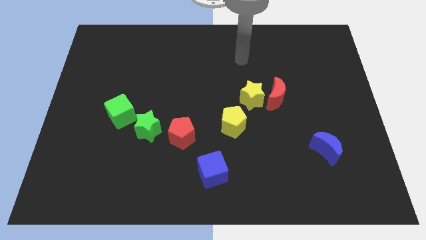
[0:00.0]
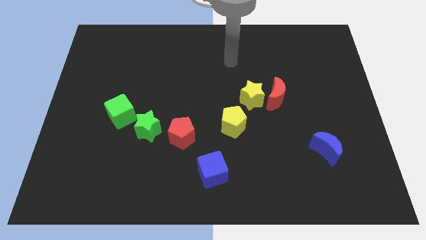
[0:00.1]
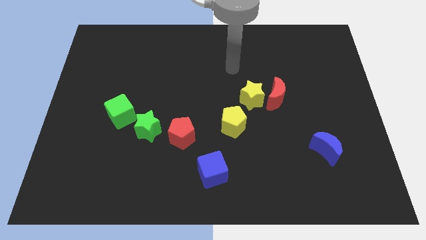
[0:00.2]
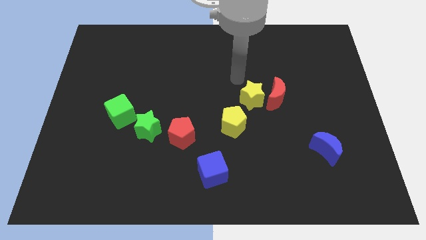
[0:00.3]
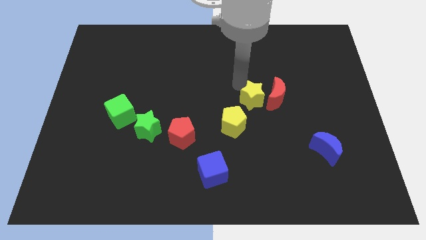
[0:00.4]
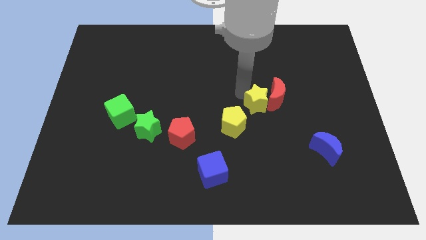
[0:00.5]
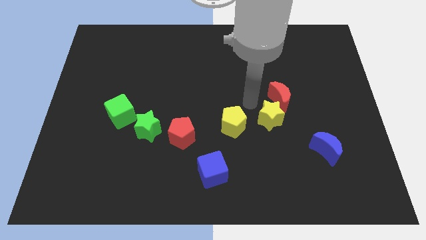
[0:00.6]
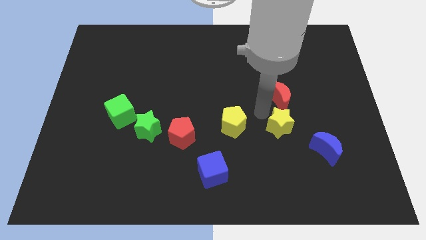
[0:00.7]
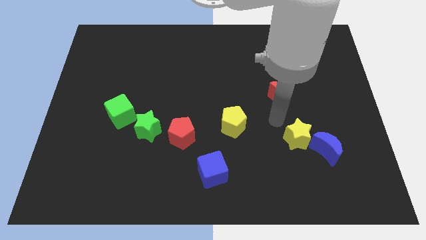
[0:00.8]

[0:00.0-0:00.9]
move the red moon away from the yellow star

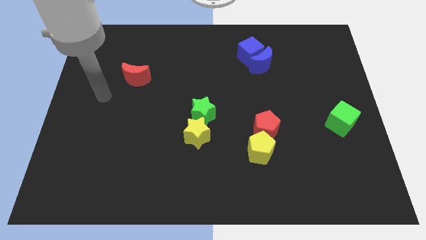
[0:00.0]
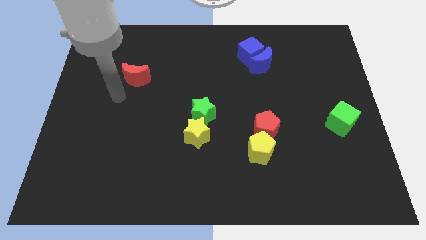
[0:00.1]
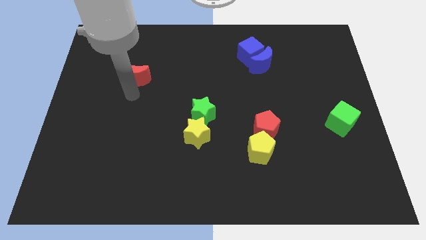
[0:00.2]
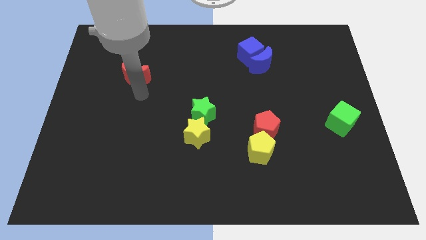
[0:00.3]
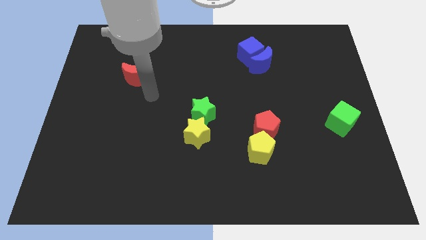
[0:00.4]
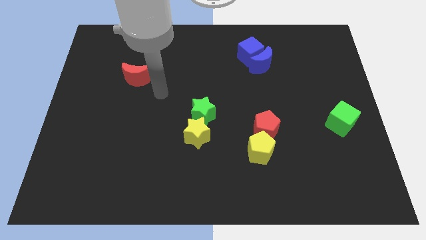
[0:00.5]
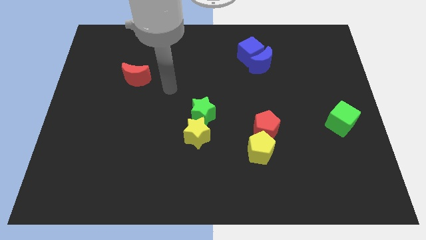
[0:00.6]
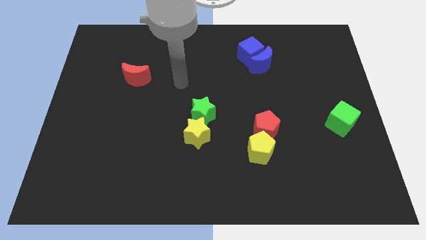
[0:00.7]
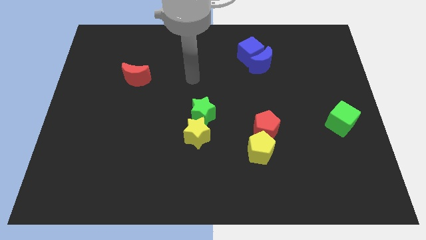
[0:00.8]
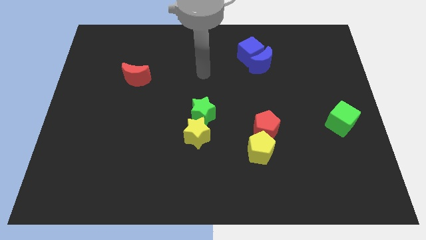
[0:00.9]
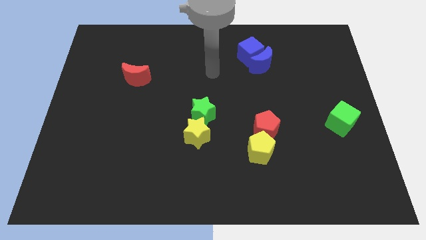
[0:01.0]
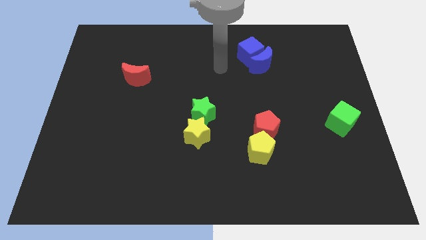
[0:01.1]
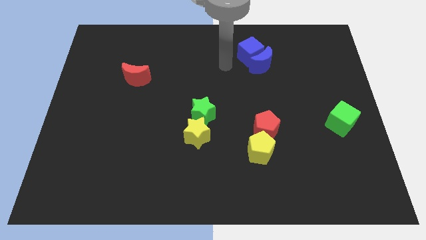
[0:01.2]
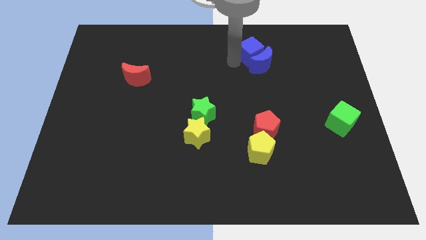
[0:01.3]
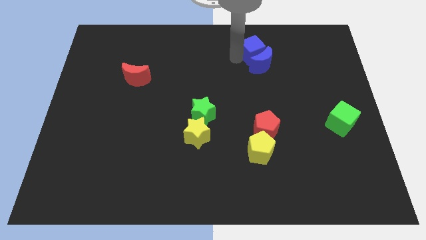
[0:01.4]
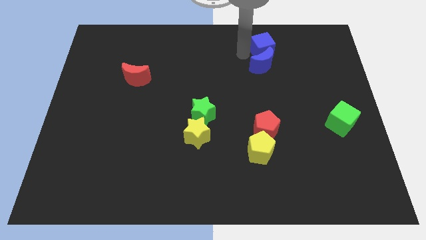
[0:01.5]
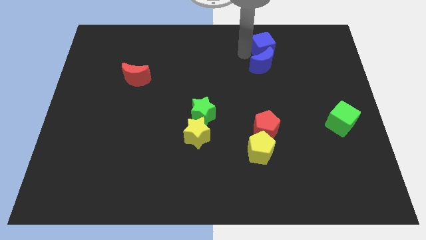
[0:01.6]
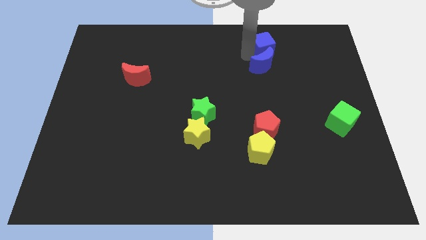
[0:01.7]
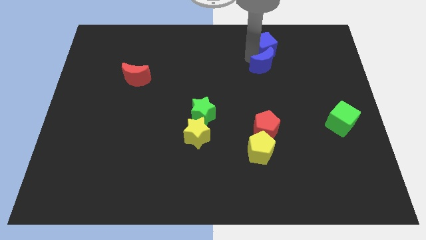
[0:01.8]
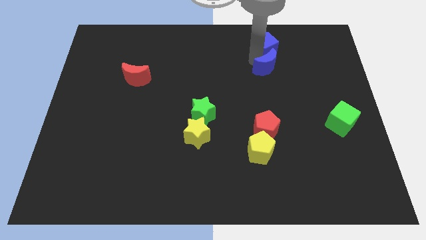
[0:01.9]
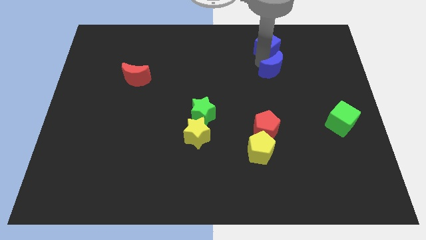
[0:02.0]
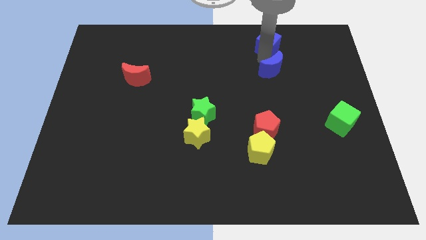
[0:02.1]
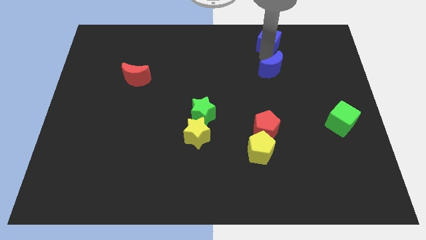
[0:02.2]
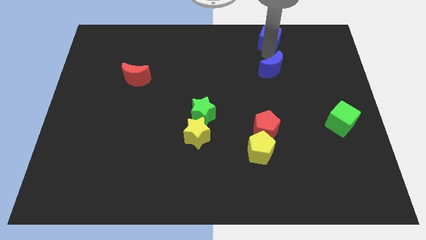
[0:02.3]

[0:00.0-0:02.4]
separate the blue moon from the blue cube

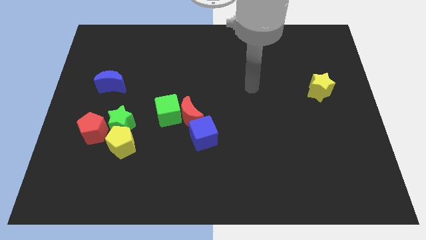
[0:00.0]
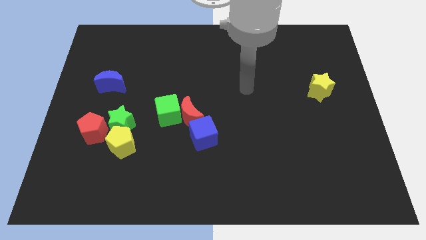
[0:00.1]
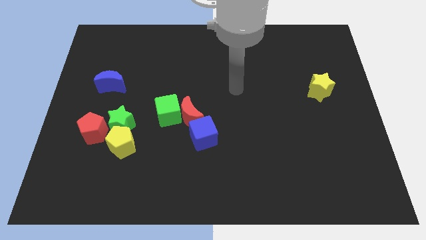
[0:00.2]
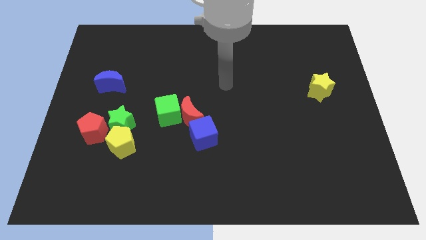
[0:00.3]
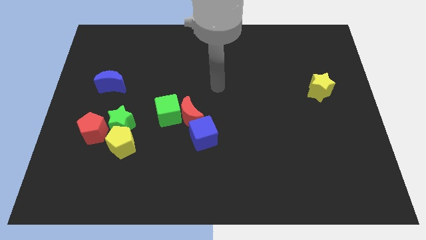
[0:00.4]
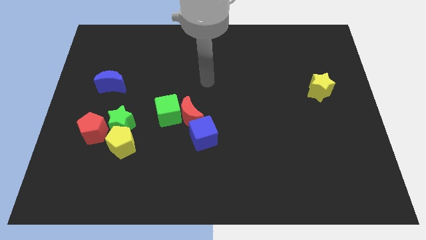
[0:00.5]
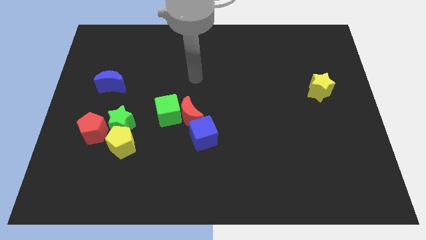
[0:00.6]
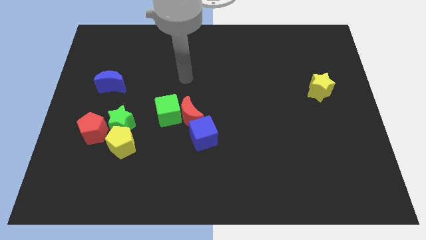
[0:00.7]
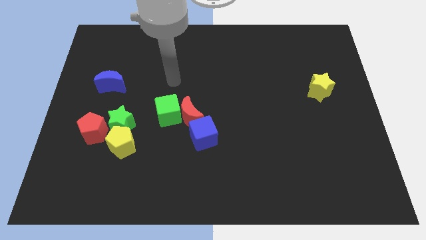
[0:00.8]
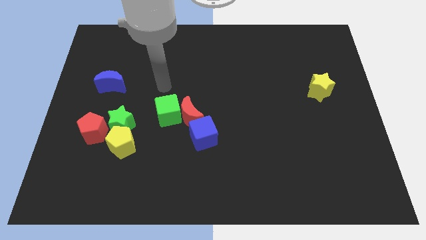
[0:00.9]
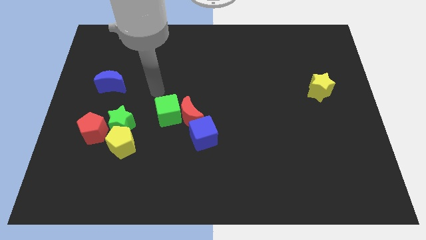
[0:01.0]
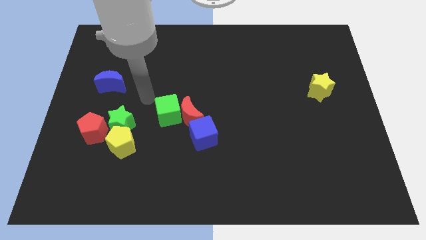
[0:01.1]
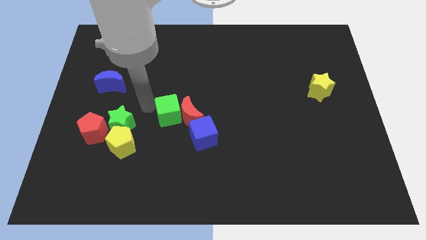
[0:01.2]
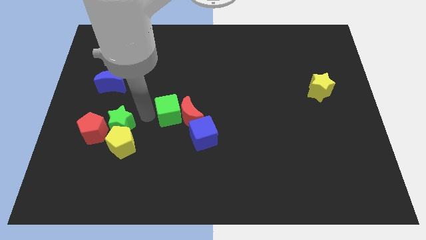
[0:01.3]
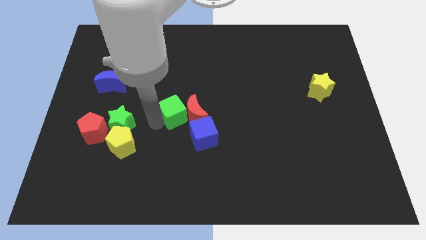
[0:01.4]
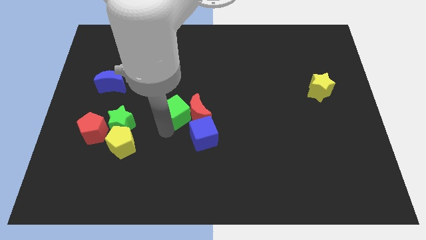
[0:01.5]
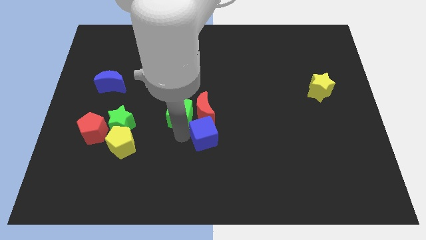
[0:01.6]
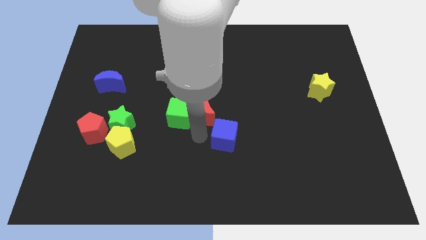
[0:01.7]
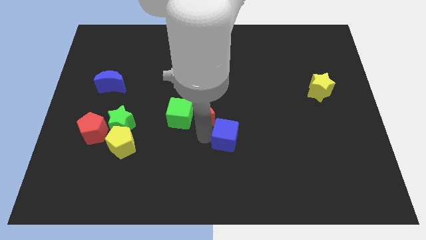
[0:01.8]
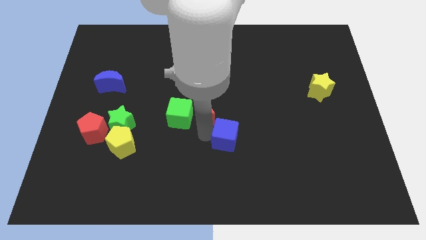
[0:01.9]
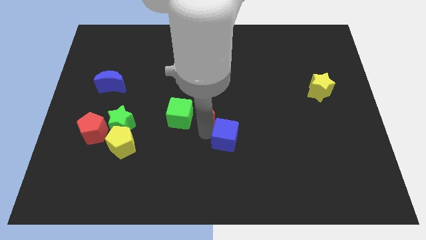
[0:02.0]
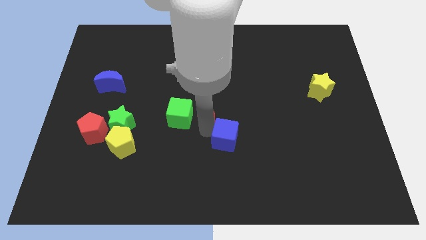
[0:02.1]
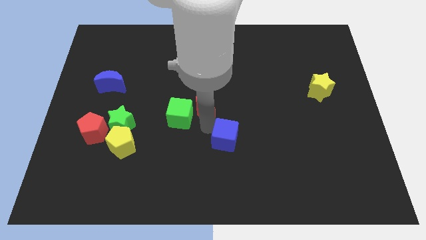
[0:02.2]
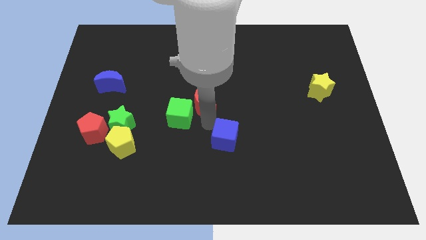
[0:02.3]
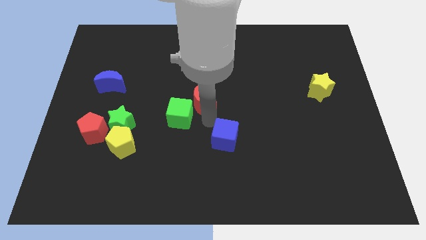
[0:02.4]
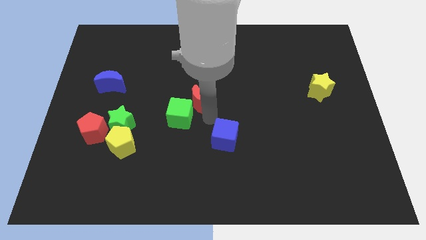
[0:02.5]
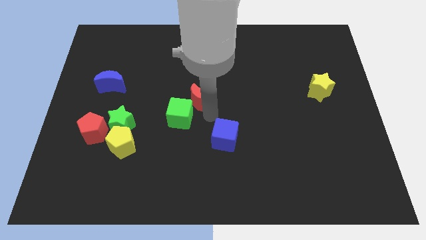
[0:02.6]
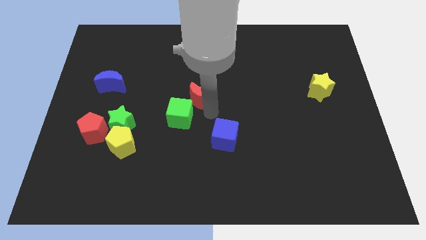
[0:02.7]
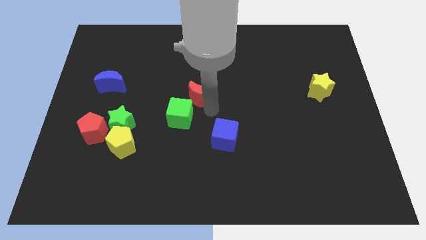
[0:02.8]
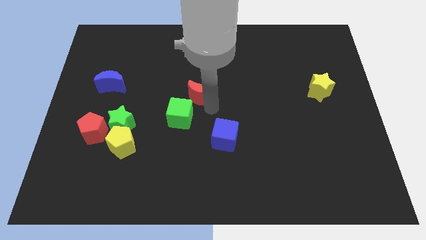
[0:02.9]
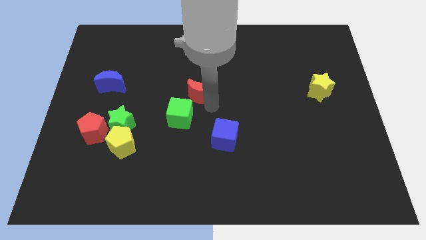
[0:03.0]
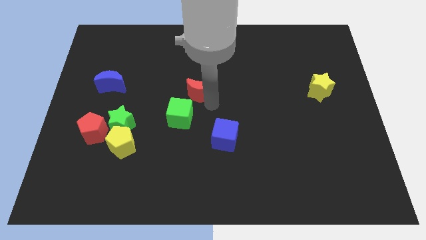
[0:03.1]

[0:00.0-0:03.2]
pull the red moon apart from the green cube and blue cube

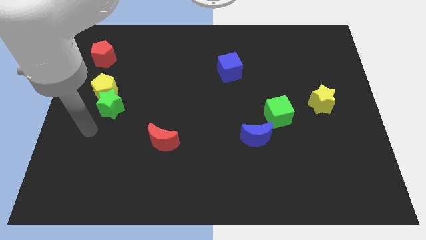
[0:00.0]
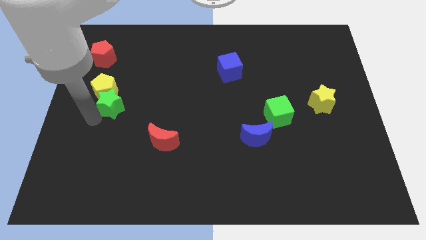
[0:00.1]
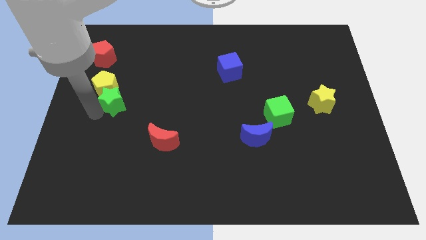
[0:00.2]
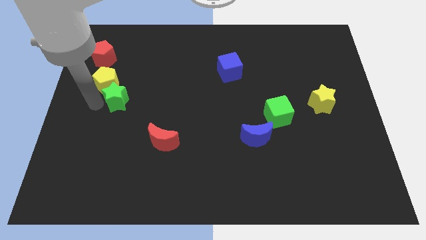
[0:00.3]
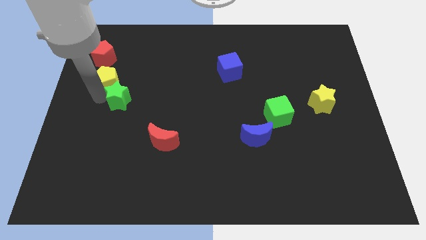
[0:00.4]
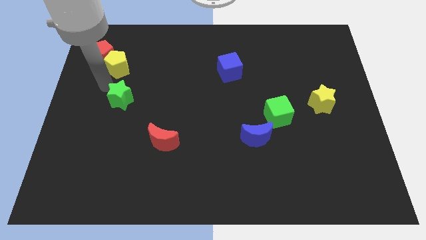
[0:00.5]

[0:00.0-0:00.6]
pull the green star apart from the yellow pentagon

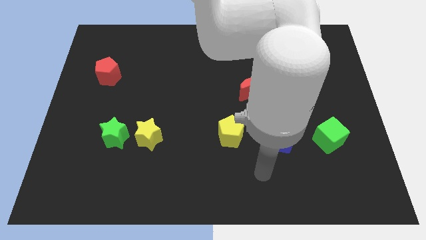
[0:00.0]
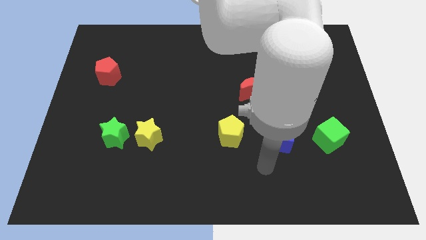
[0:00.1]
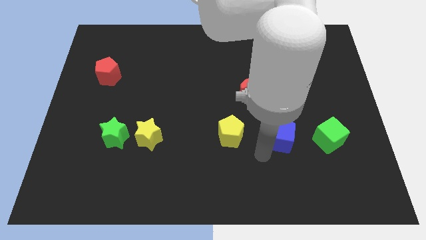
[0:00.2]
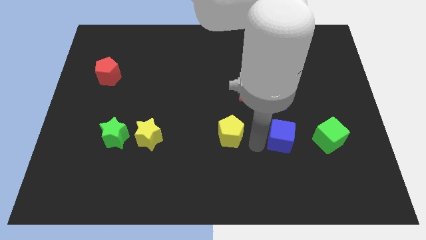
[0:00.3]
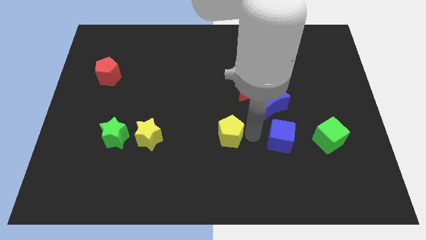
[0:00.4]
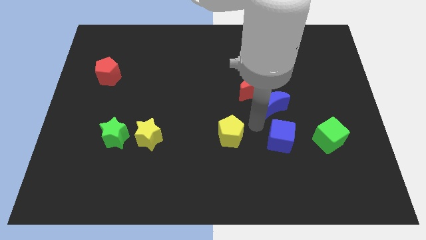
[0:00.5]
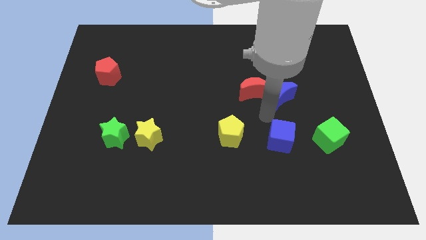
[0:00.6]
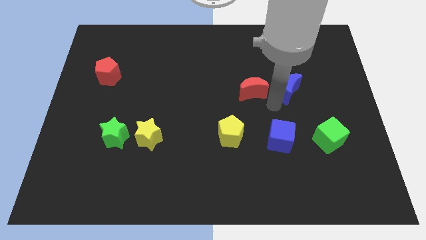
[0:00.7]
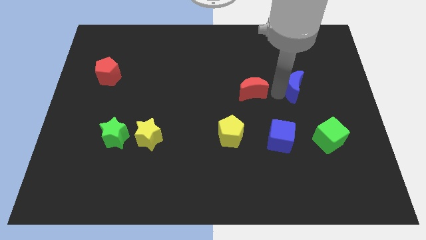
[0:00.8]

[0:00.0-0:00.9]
move the red moon away from the blue moon

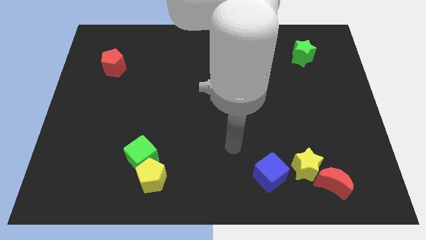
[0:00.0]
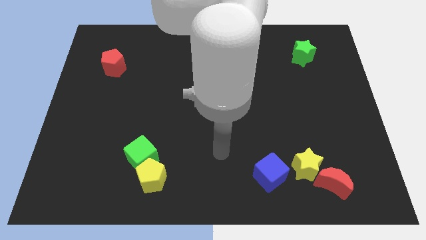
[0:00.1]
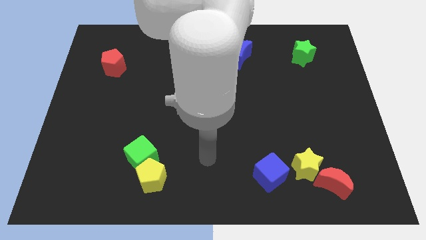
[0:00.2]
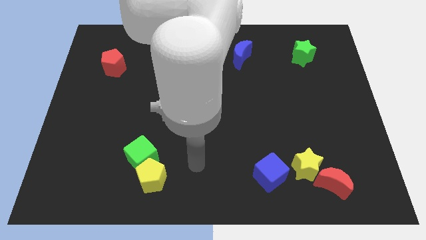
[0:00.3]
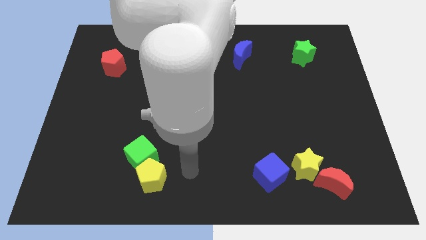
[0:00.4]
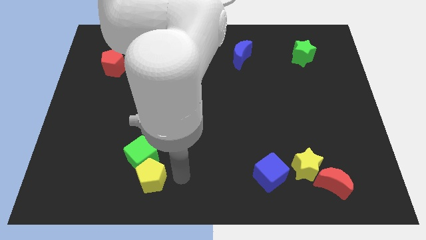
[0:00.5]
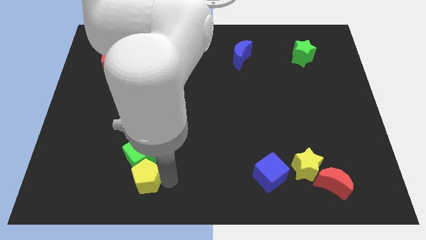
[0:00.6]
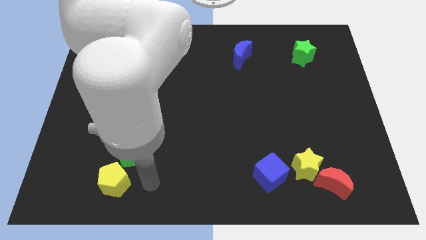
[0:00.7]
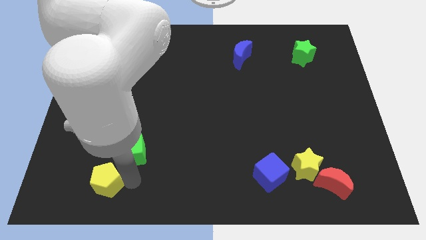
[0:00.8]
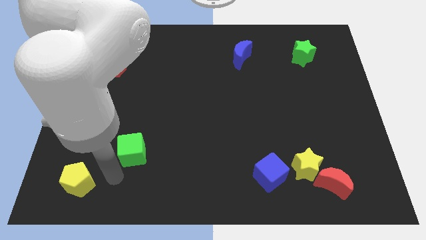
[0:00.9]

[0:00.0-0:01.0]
move the green cube away from the yellow pentagon

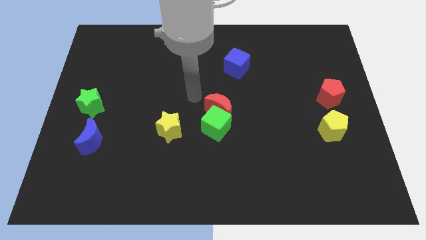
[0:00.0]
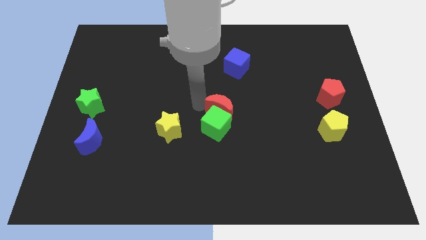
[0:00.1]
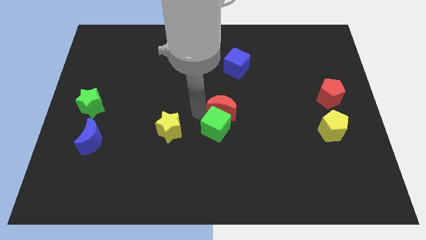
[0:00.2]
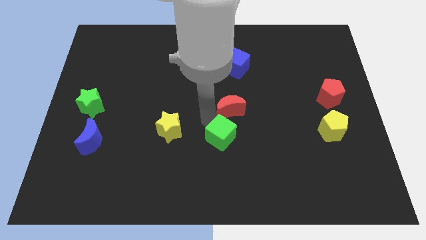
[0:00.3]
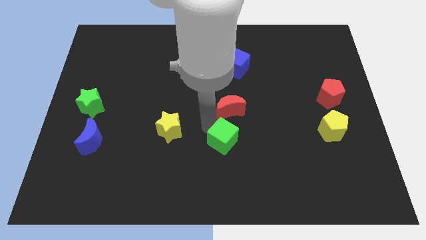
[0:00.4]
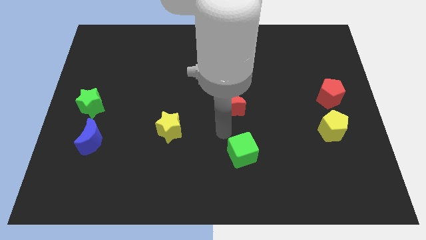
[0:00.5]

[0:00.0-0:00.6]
pull the red moon apart from the green cube
